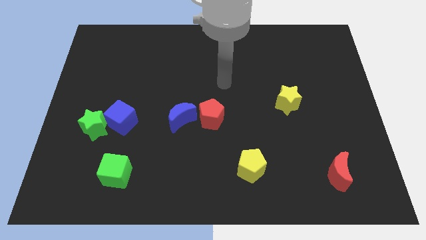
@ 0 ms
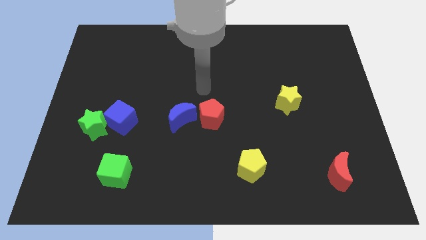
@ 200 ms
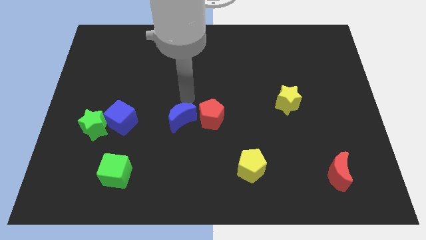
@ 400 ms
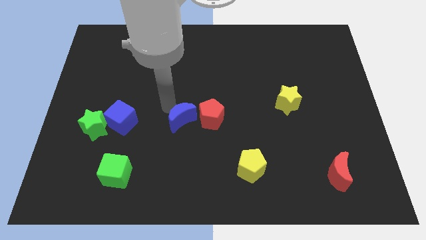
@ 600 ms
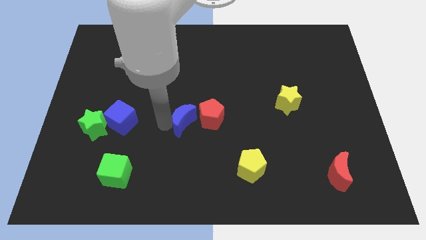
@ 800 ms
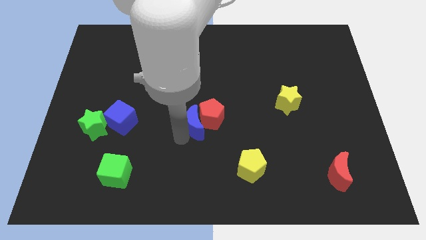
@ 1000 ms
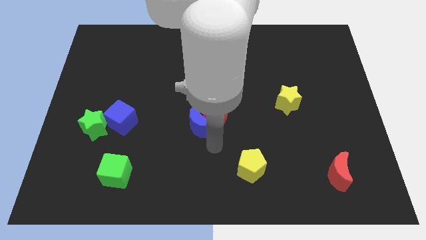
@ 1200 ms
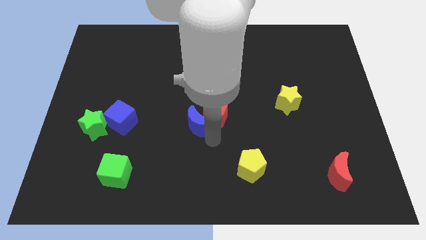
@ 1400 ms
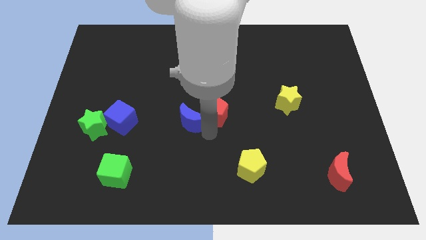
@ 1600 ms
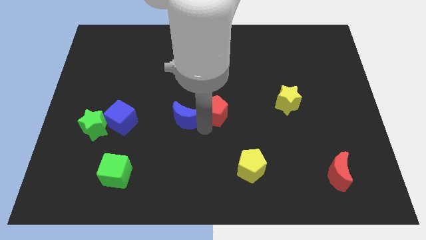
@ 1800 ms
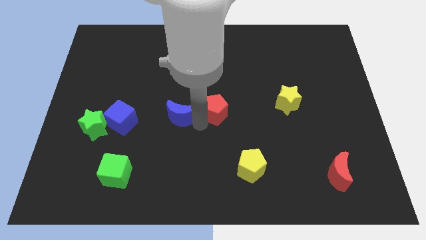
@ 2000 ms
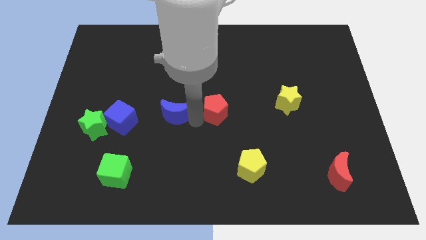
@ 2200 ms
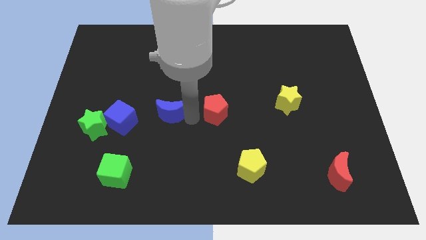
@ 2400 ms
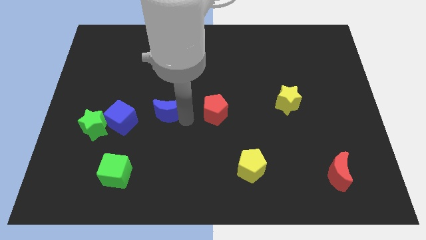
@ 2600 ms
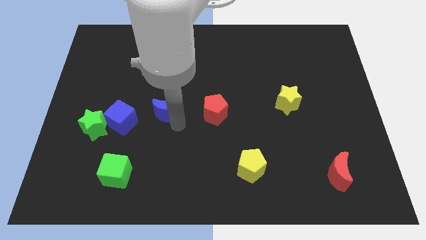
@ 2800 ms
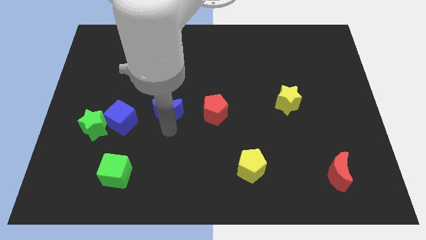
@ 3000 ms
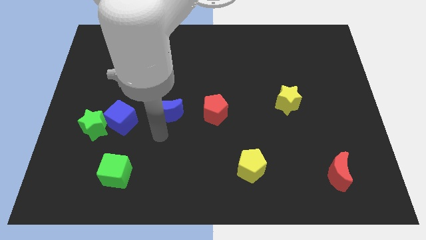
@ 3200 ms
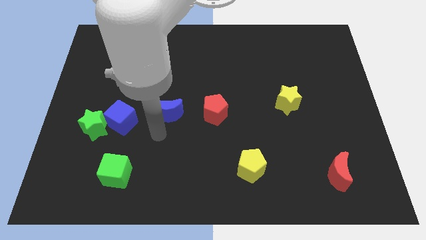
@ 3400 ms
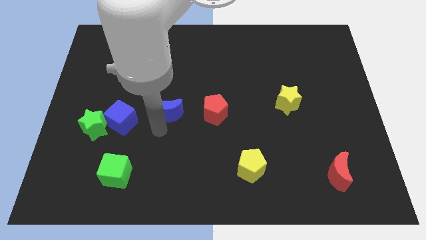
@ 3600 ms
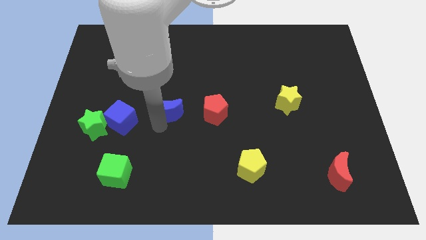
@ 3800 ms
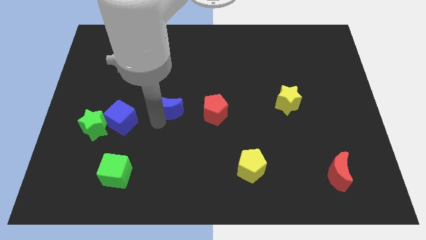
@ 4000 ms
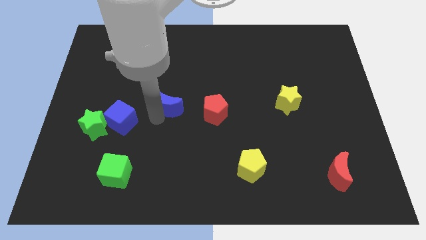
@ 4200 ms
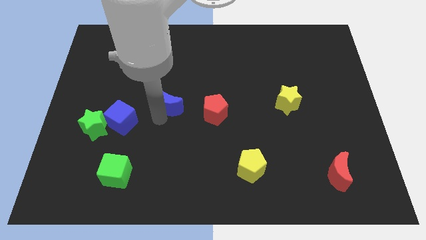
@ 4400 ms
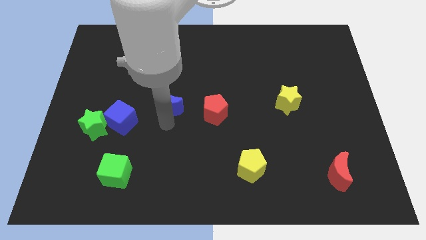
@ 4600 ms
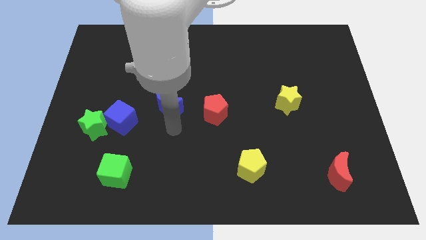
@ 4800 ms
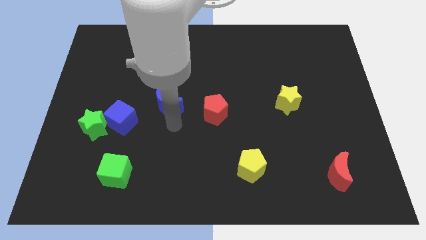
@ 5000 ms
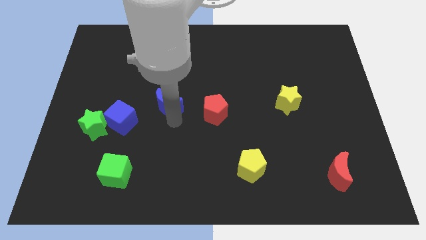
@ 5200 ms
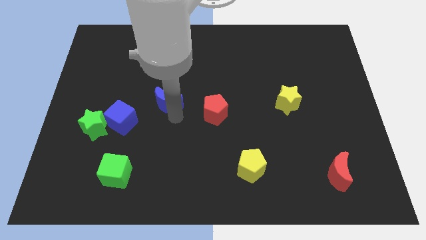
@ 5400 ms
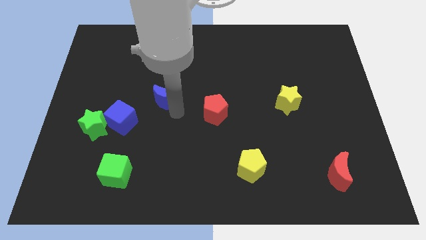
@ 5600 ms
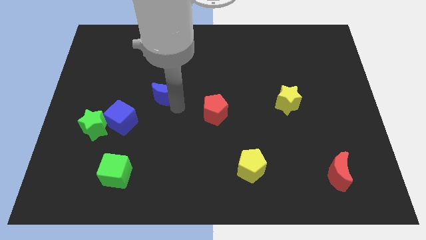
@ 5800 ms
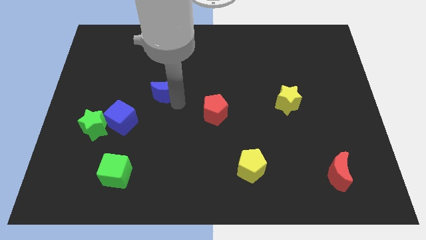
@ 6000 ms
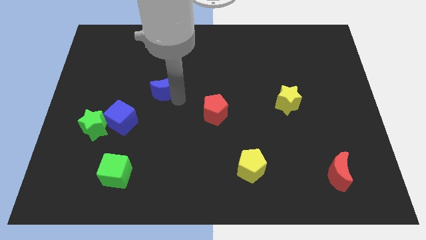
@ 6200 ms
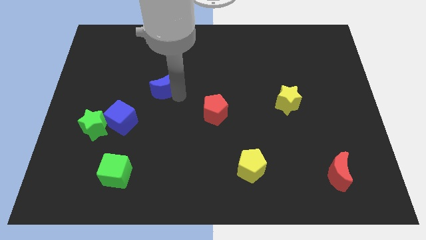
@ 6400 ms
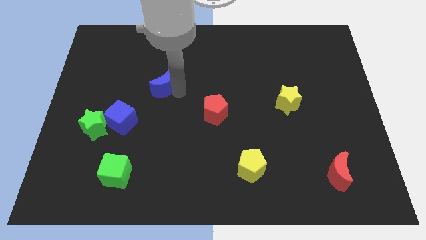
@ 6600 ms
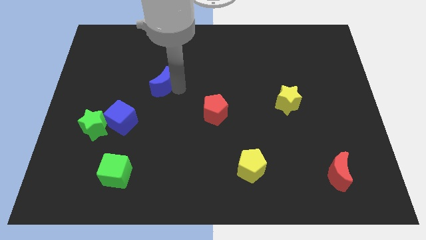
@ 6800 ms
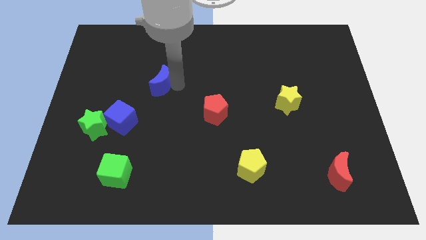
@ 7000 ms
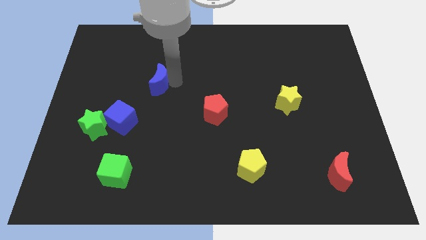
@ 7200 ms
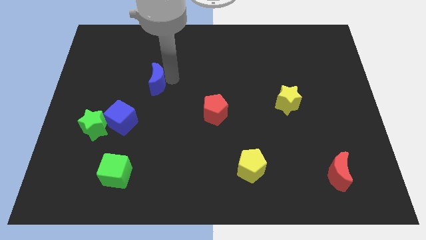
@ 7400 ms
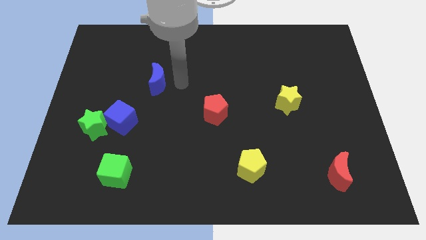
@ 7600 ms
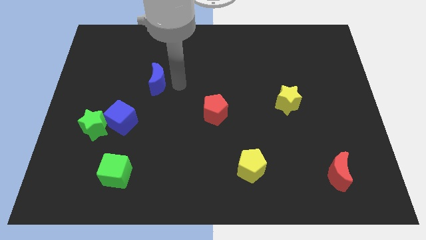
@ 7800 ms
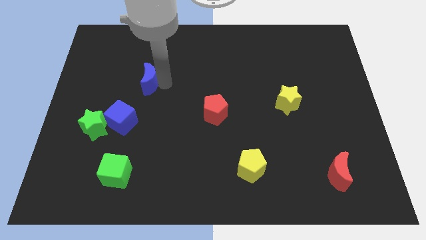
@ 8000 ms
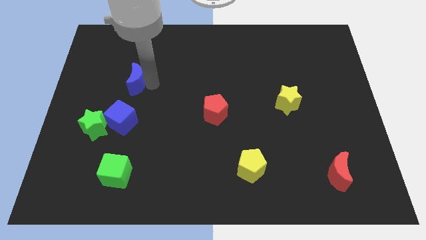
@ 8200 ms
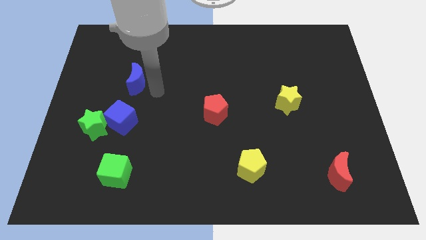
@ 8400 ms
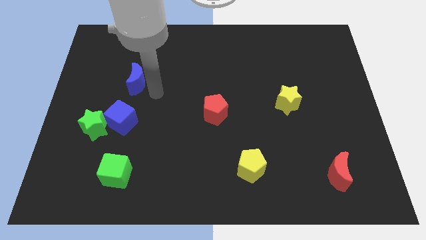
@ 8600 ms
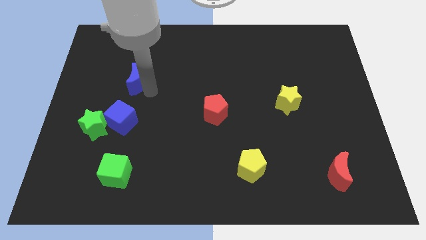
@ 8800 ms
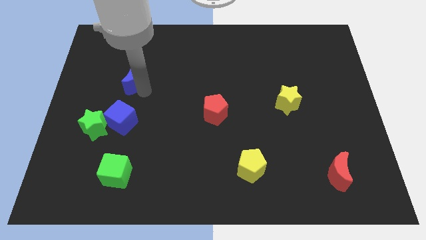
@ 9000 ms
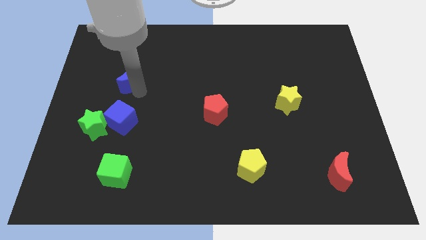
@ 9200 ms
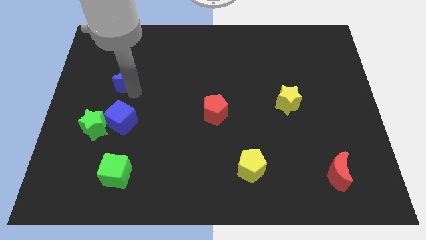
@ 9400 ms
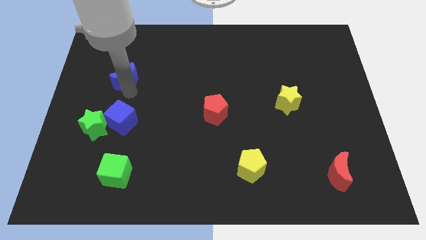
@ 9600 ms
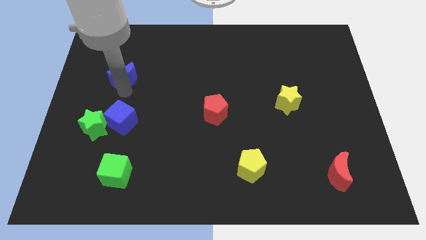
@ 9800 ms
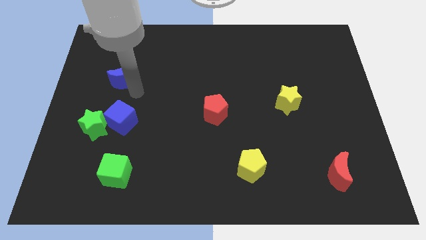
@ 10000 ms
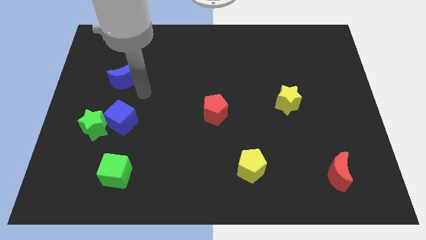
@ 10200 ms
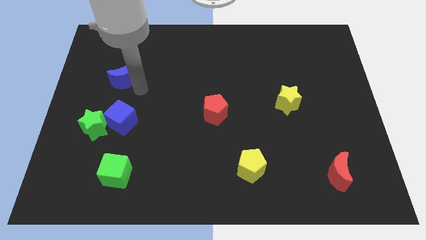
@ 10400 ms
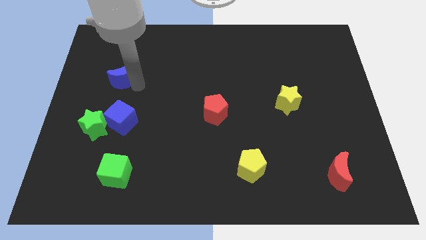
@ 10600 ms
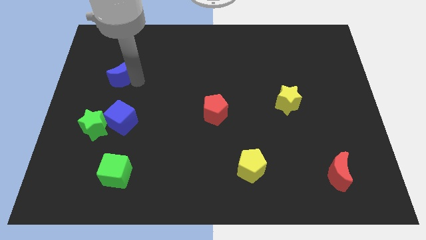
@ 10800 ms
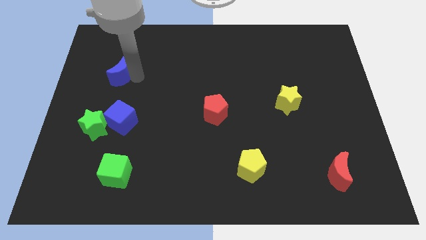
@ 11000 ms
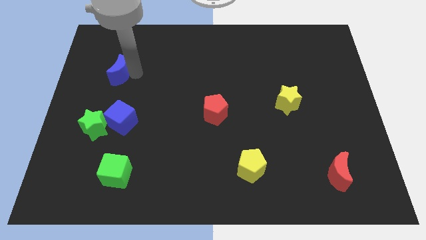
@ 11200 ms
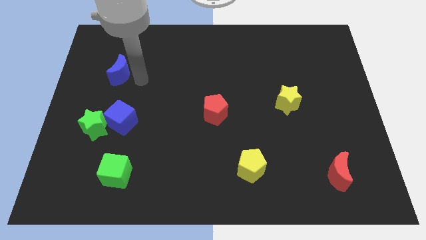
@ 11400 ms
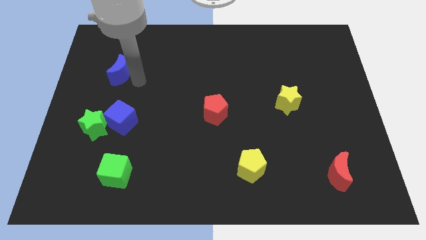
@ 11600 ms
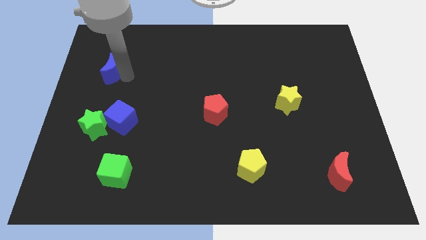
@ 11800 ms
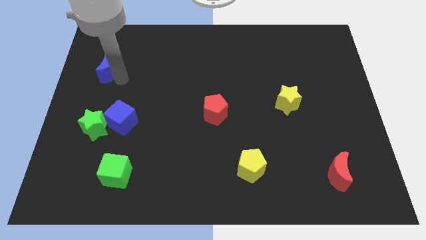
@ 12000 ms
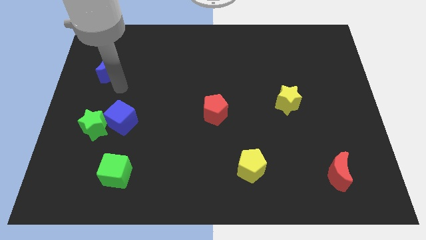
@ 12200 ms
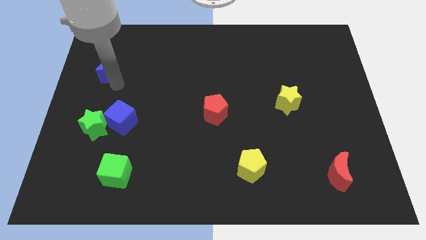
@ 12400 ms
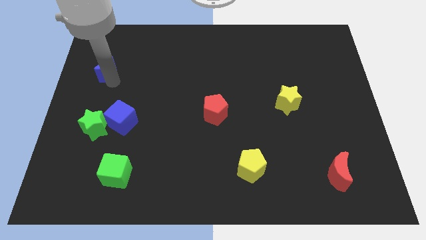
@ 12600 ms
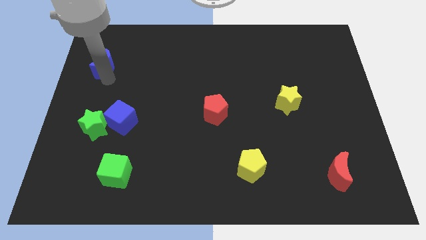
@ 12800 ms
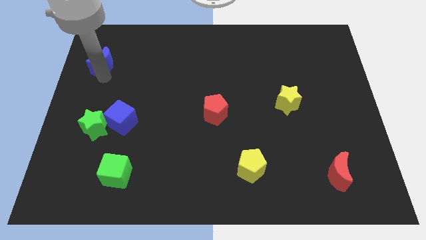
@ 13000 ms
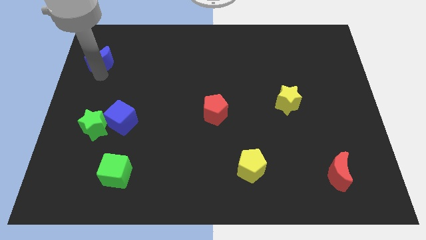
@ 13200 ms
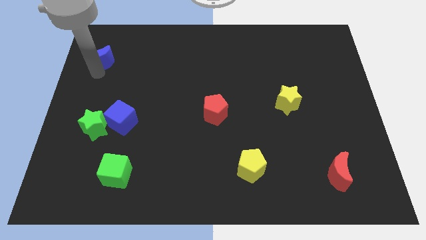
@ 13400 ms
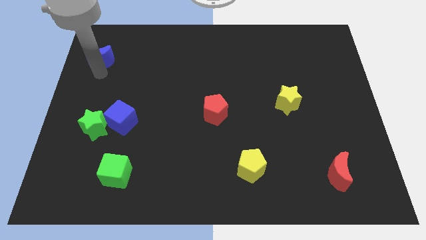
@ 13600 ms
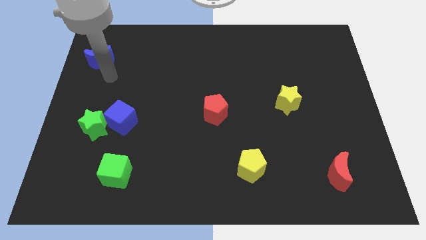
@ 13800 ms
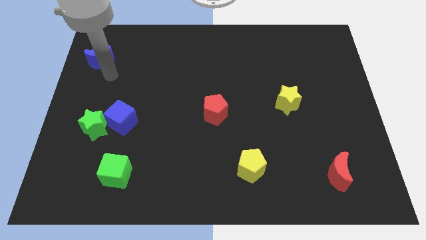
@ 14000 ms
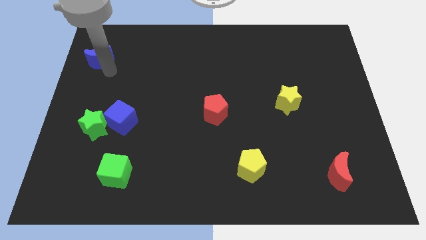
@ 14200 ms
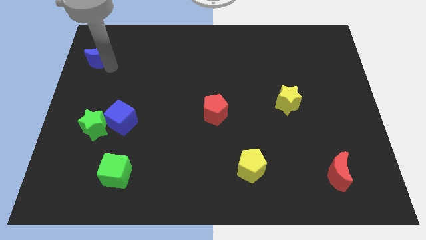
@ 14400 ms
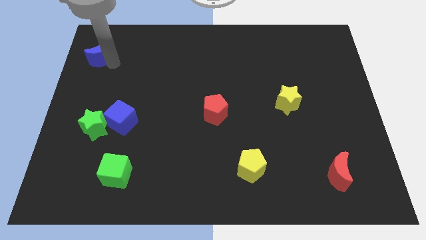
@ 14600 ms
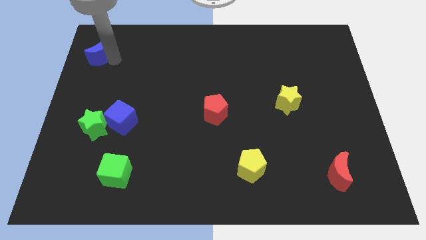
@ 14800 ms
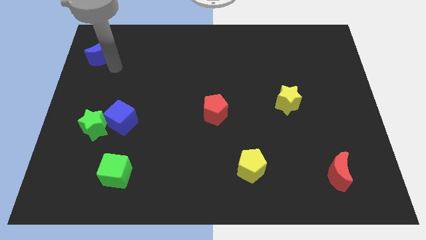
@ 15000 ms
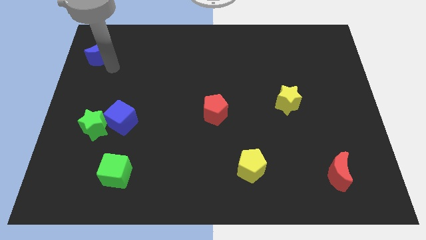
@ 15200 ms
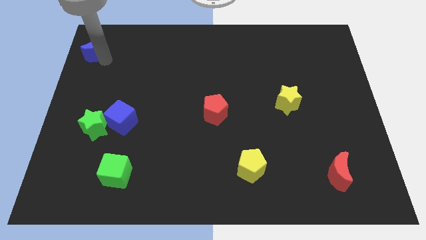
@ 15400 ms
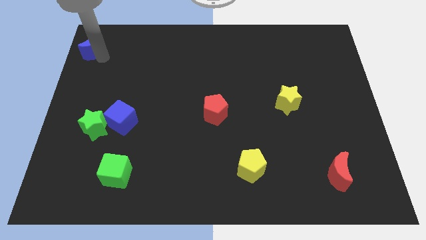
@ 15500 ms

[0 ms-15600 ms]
move the blue moon to the top left of the board
